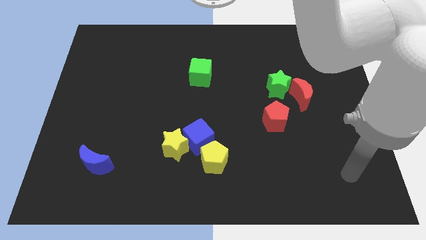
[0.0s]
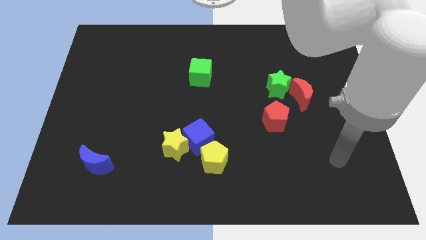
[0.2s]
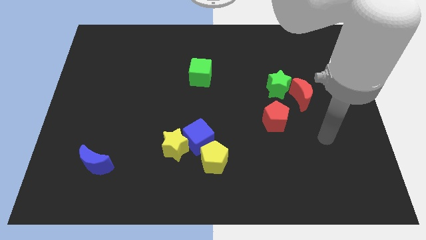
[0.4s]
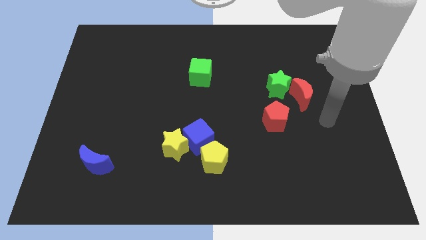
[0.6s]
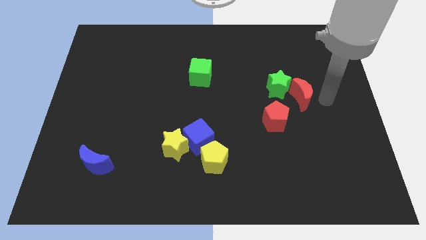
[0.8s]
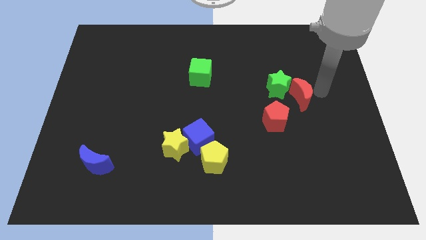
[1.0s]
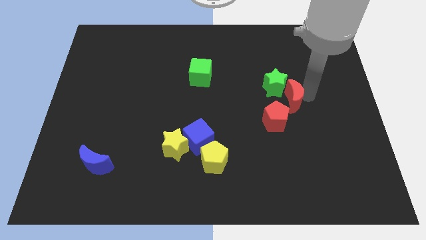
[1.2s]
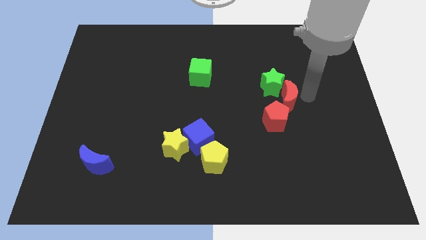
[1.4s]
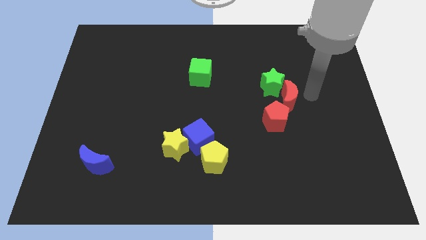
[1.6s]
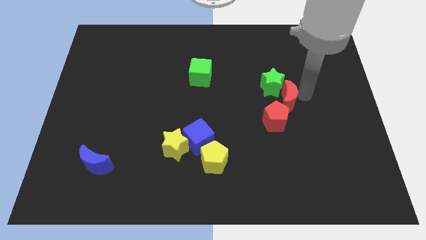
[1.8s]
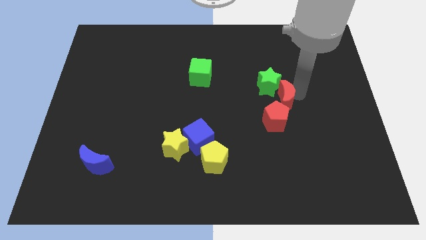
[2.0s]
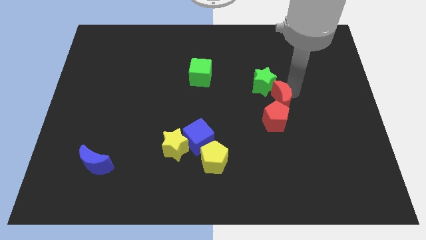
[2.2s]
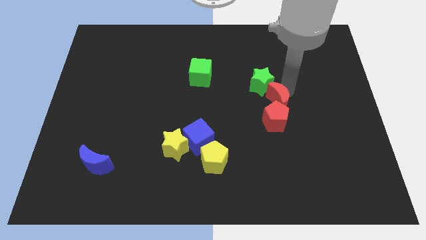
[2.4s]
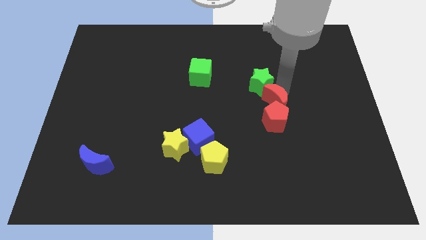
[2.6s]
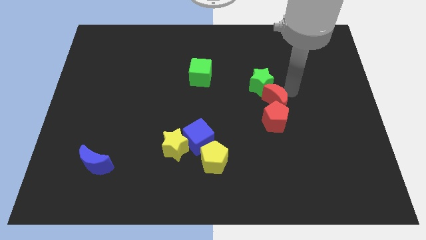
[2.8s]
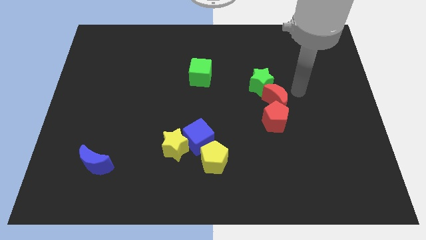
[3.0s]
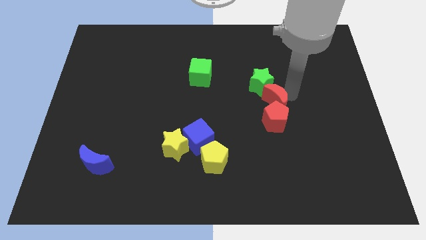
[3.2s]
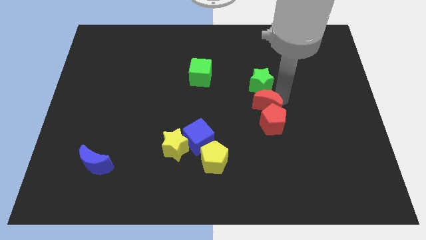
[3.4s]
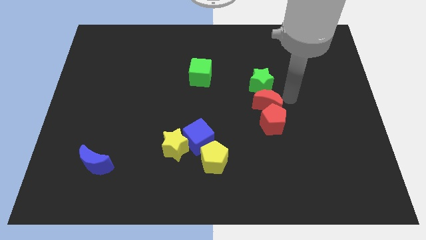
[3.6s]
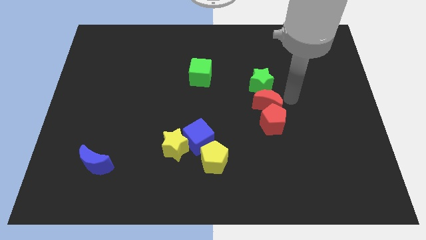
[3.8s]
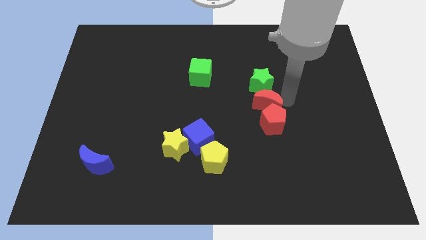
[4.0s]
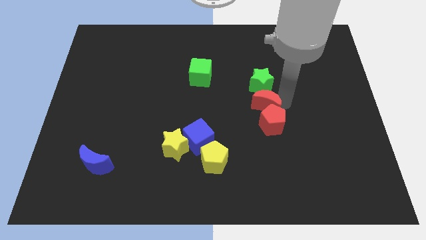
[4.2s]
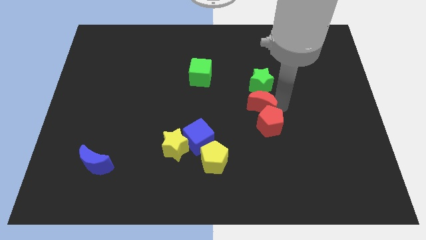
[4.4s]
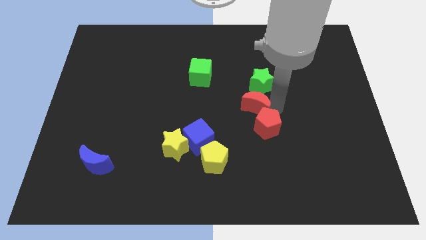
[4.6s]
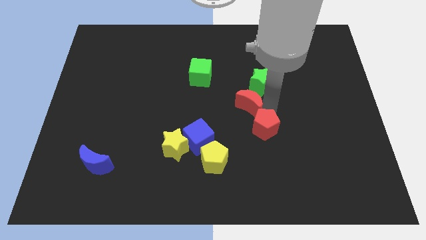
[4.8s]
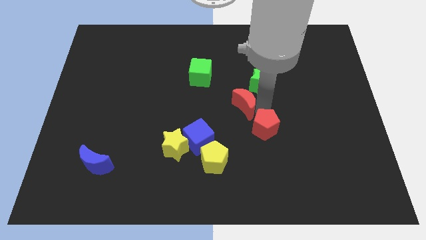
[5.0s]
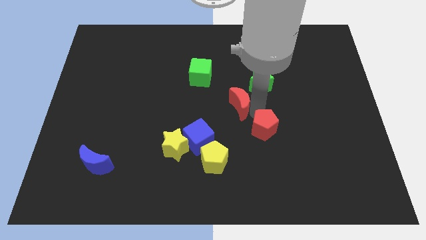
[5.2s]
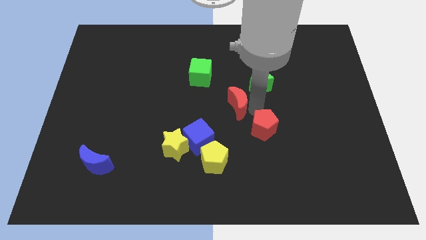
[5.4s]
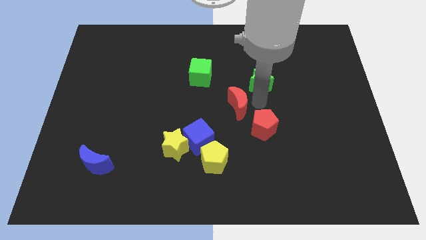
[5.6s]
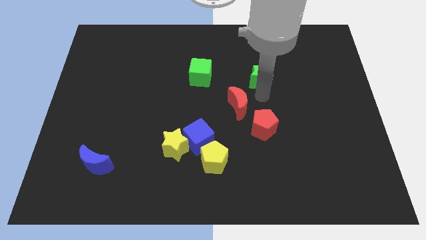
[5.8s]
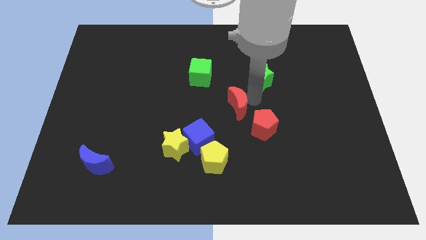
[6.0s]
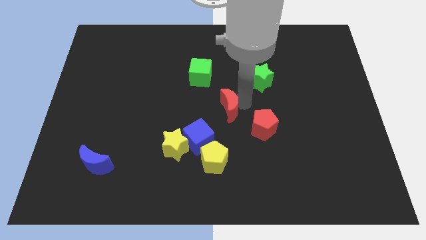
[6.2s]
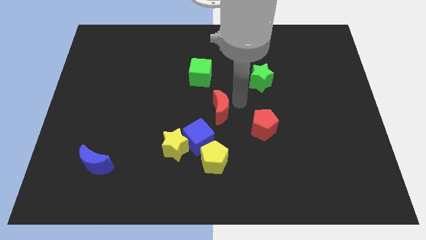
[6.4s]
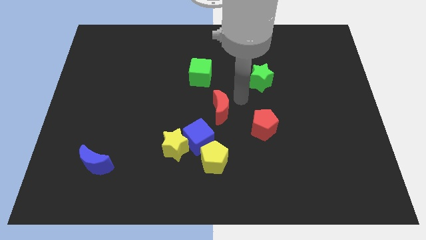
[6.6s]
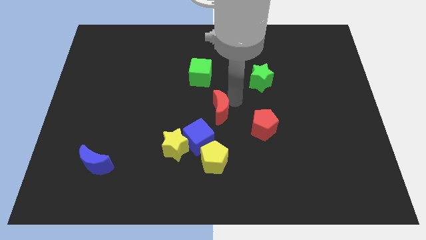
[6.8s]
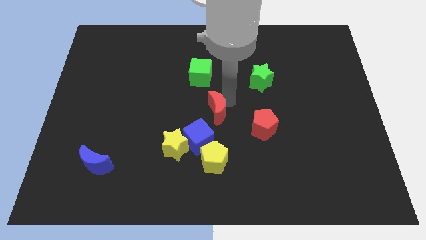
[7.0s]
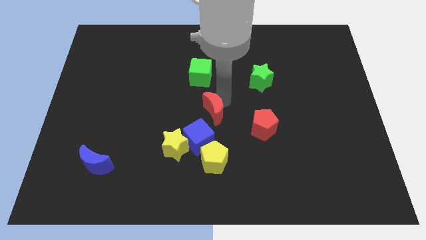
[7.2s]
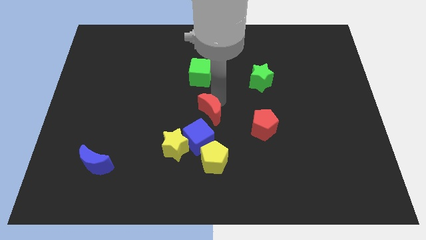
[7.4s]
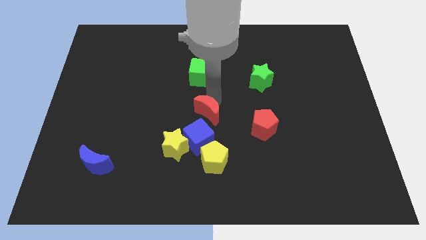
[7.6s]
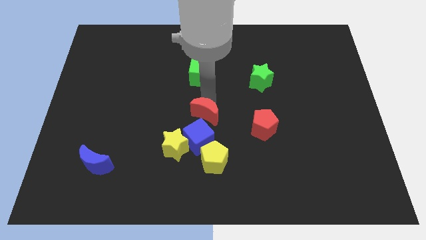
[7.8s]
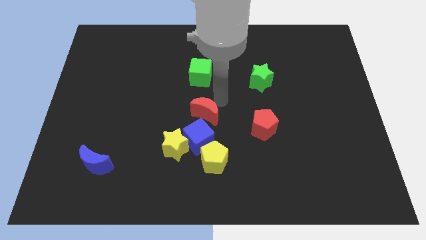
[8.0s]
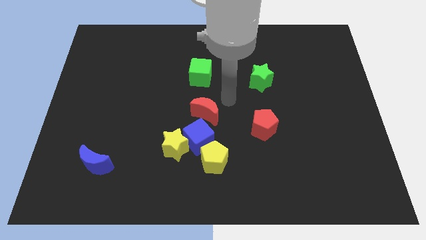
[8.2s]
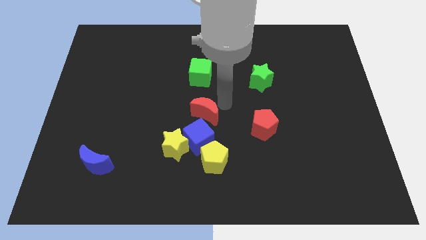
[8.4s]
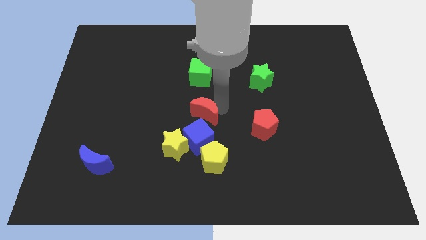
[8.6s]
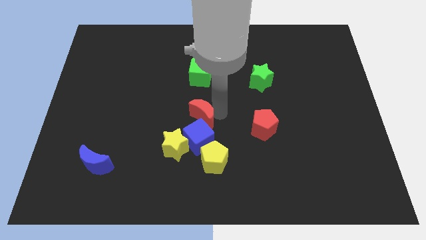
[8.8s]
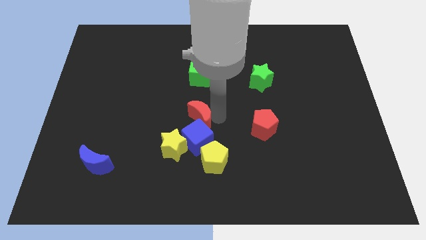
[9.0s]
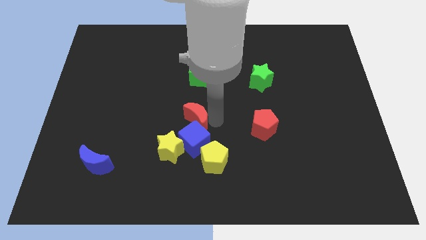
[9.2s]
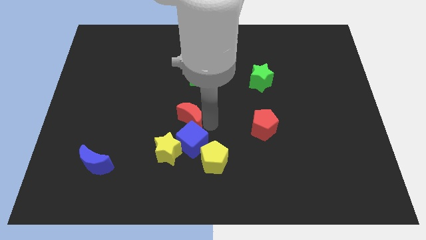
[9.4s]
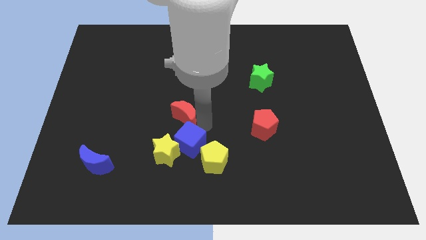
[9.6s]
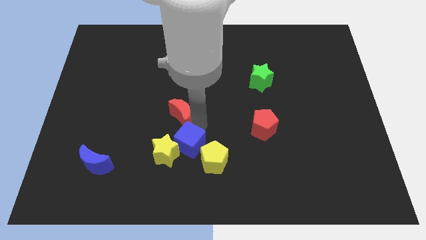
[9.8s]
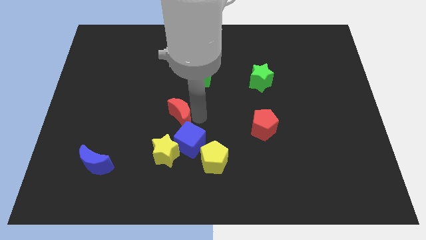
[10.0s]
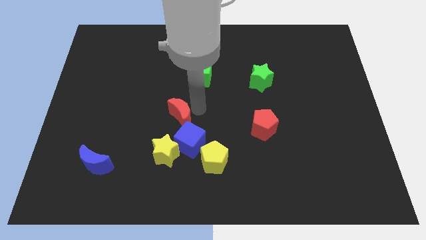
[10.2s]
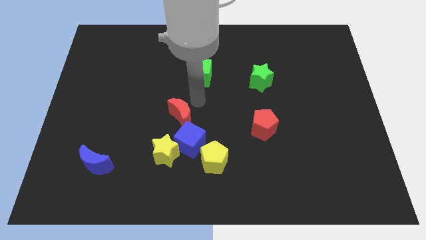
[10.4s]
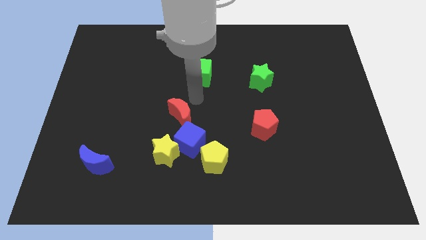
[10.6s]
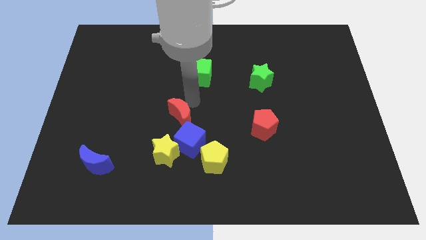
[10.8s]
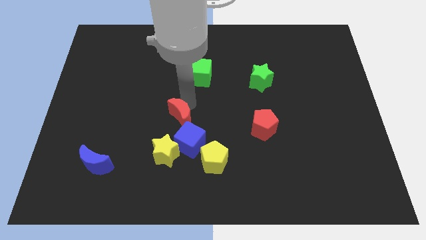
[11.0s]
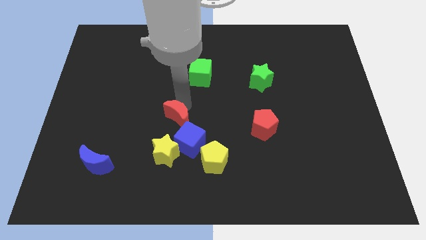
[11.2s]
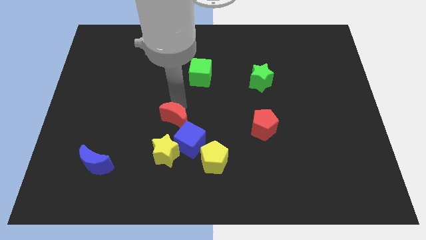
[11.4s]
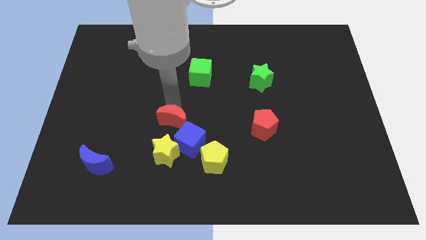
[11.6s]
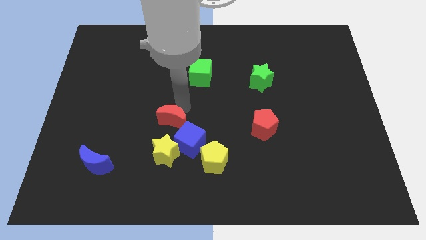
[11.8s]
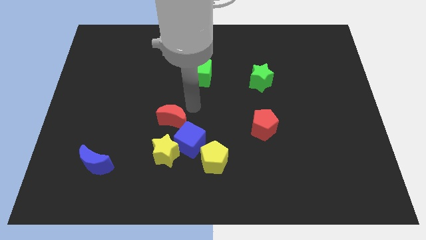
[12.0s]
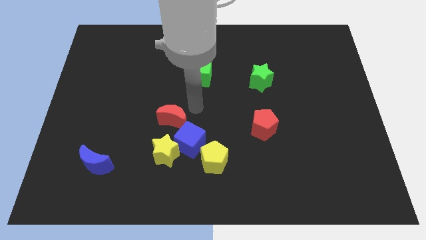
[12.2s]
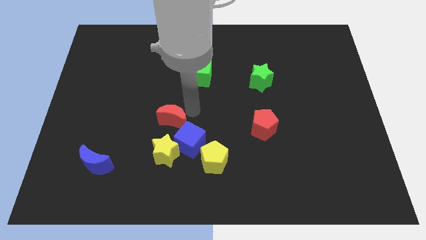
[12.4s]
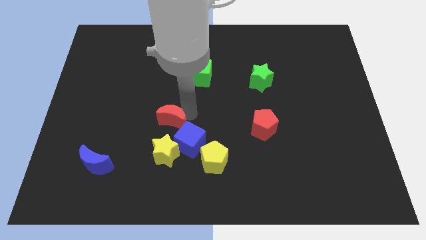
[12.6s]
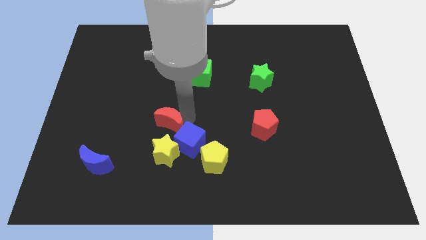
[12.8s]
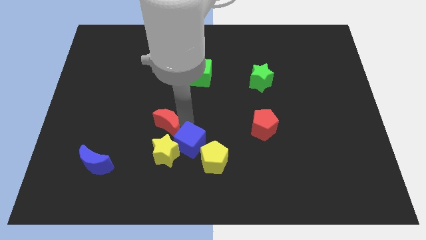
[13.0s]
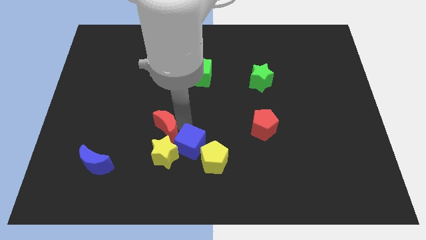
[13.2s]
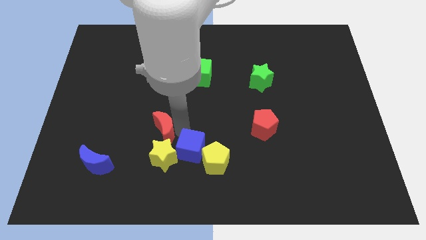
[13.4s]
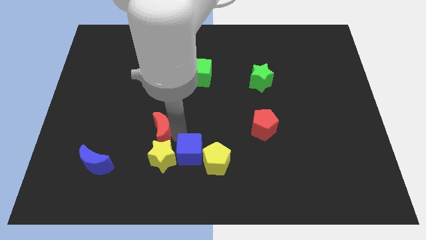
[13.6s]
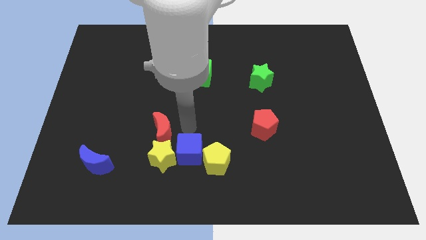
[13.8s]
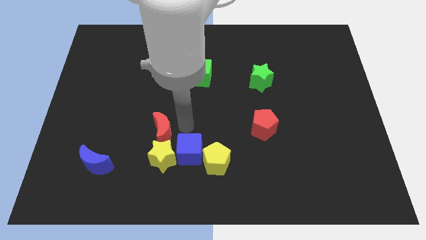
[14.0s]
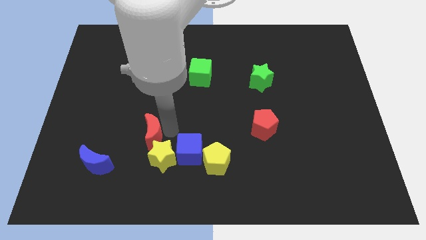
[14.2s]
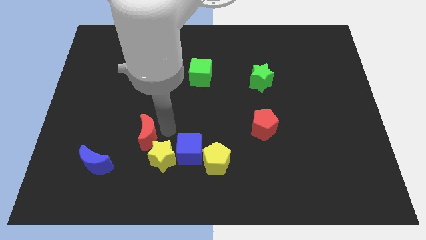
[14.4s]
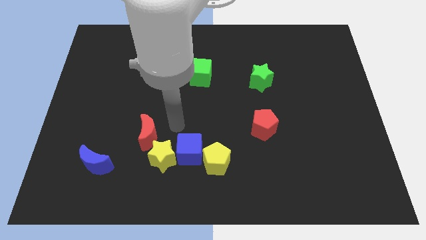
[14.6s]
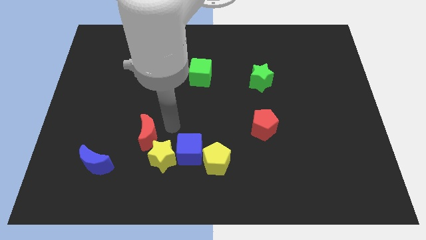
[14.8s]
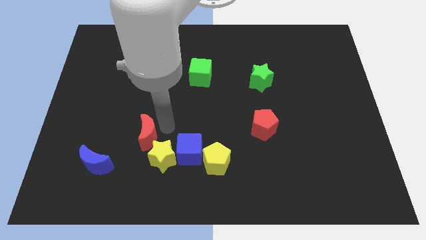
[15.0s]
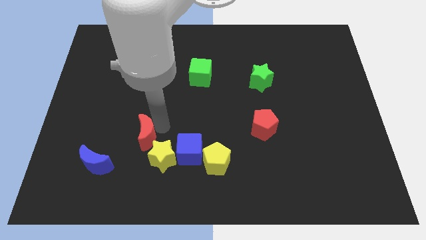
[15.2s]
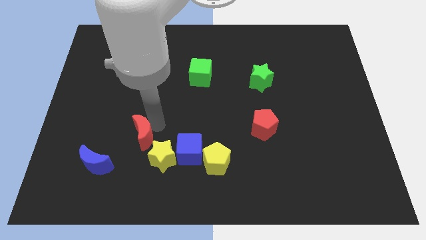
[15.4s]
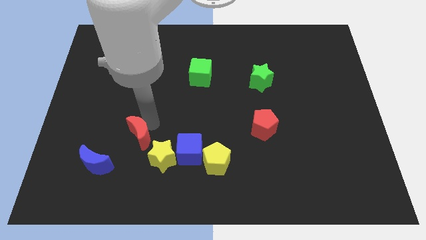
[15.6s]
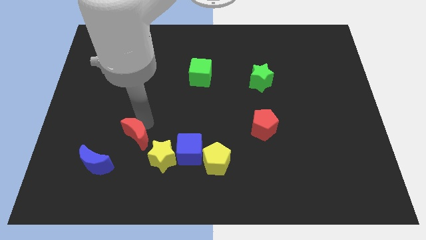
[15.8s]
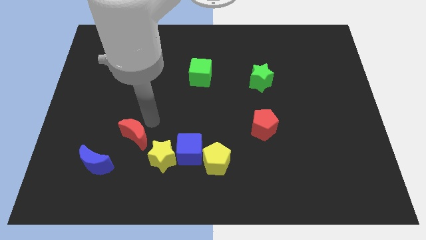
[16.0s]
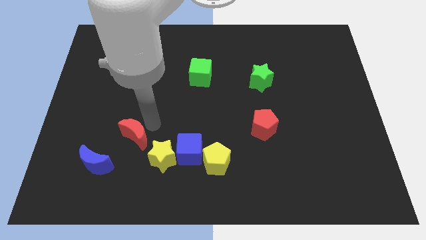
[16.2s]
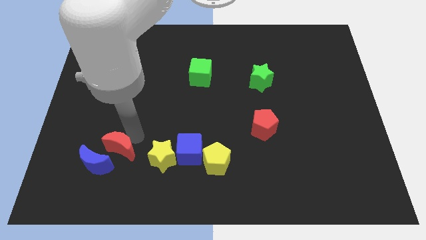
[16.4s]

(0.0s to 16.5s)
push the red moon towards the blue moon
